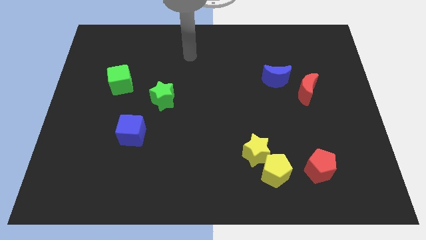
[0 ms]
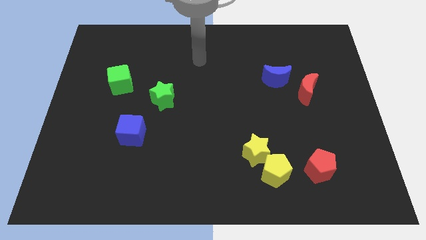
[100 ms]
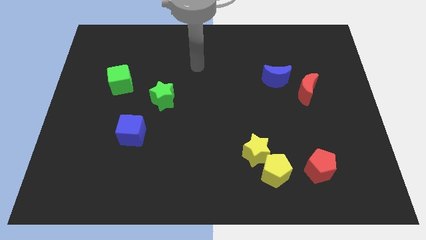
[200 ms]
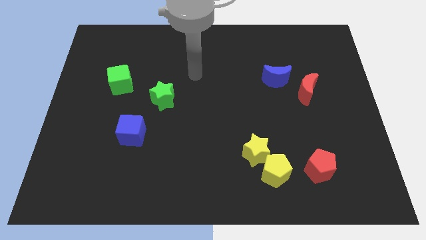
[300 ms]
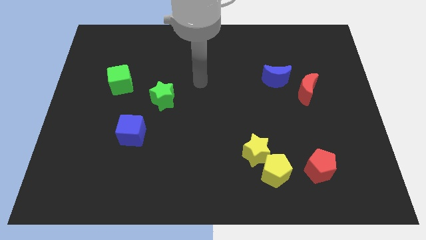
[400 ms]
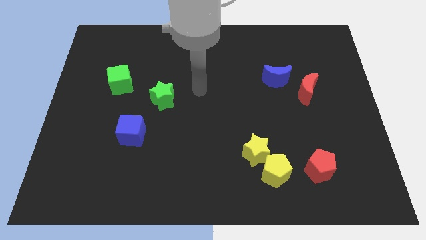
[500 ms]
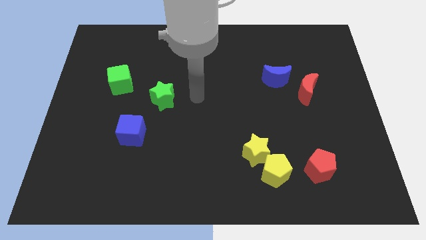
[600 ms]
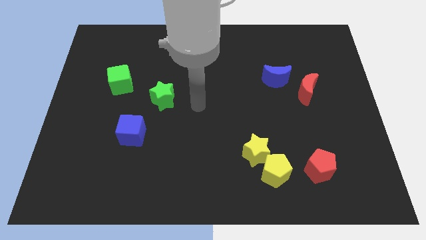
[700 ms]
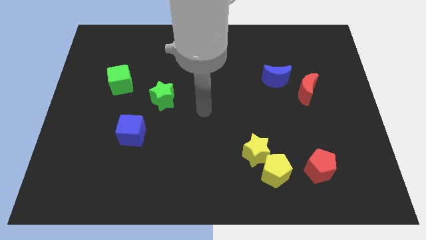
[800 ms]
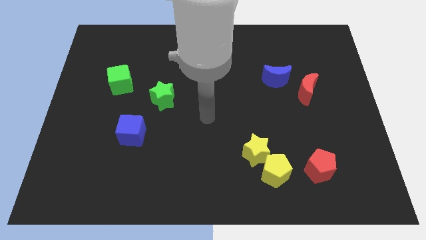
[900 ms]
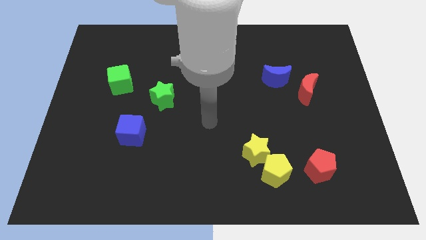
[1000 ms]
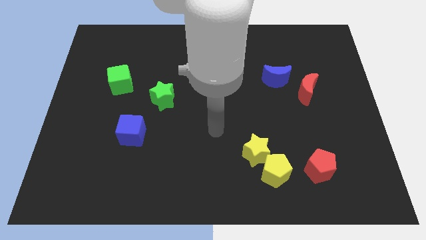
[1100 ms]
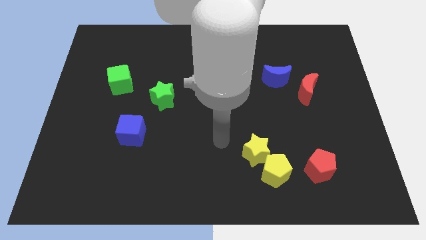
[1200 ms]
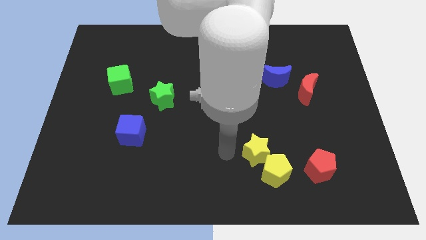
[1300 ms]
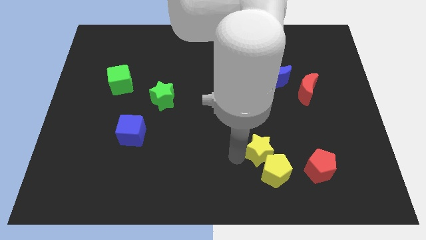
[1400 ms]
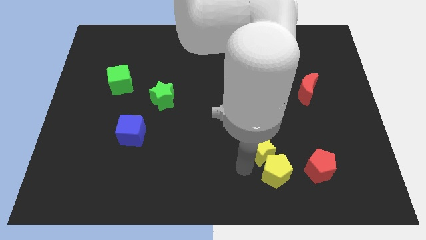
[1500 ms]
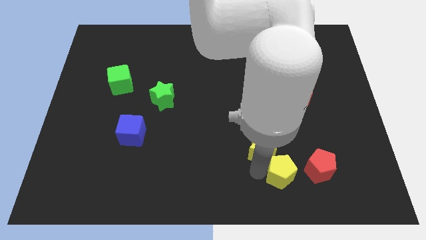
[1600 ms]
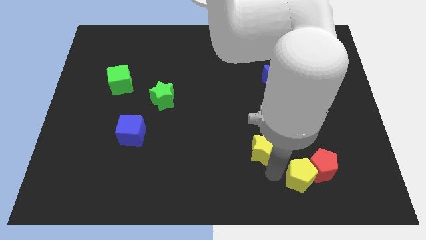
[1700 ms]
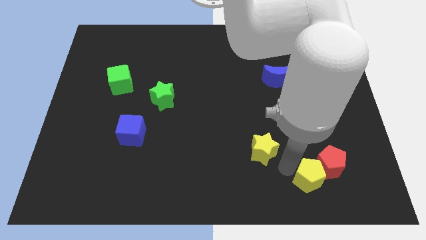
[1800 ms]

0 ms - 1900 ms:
separate the yellow star from the yellow pentagon

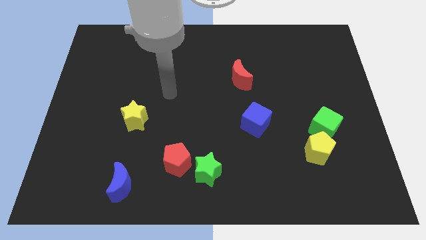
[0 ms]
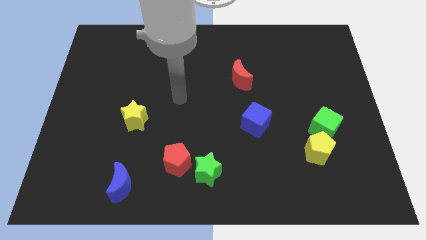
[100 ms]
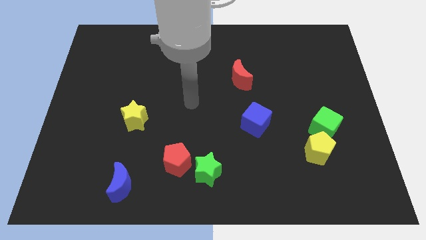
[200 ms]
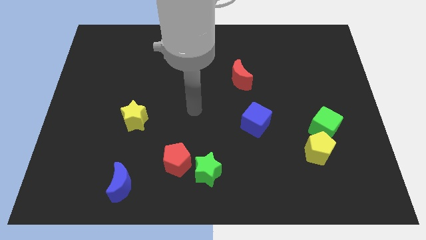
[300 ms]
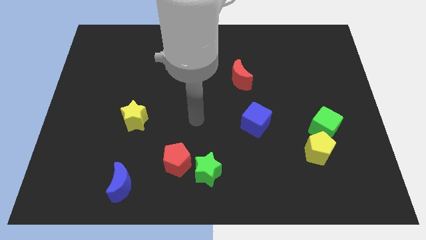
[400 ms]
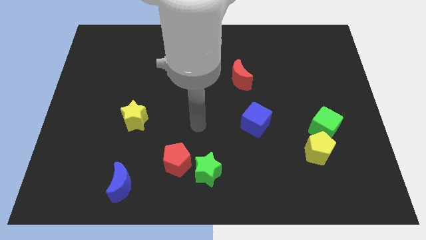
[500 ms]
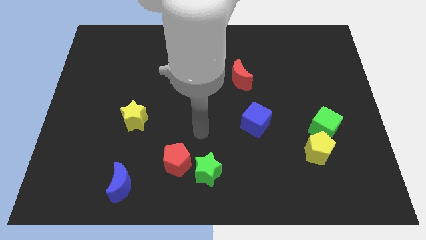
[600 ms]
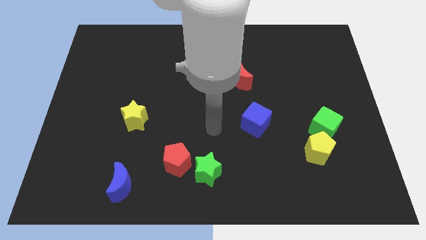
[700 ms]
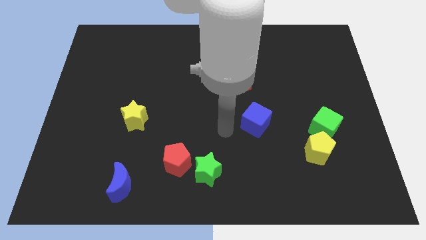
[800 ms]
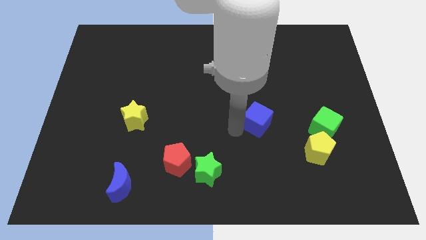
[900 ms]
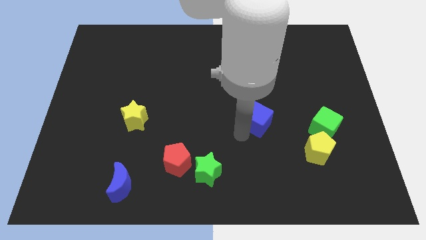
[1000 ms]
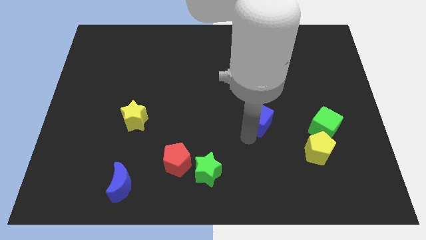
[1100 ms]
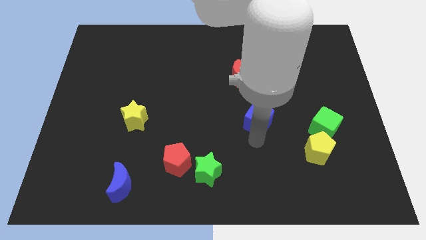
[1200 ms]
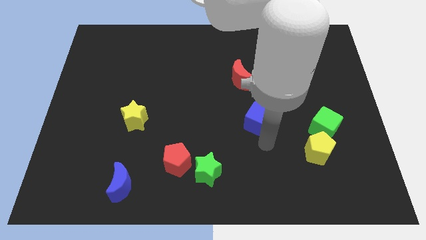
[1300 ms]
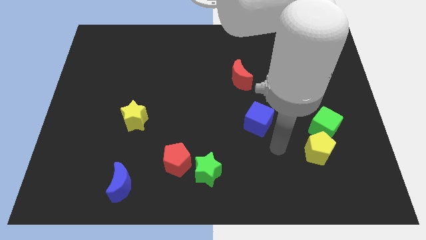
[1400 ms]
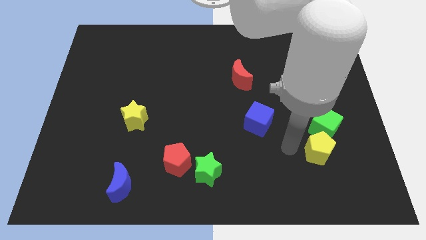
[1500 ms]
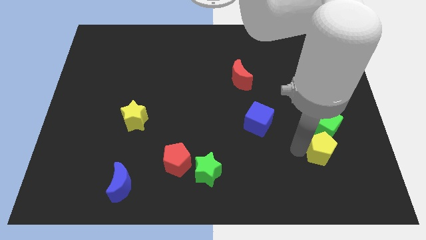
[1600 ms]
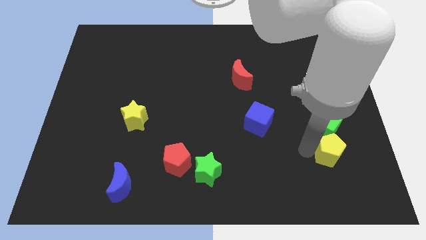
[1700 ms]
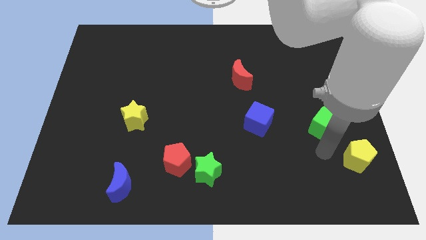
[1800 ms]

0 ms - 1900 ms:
pull the green cube apart from the yellow pentagon

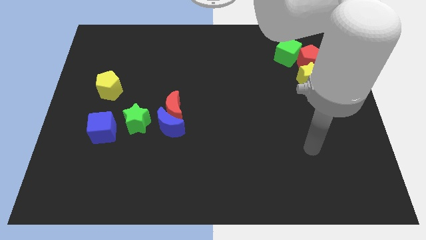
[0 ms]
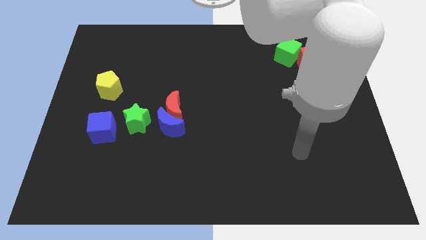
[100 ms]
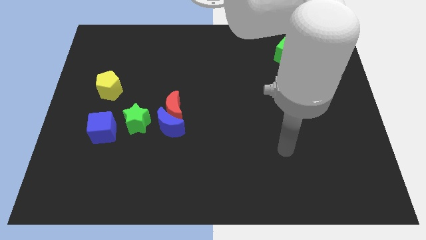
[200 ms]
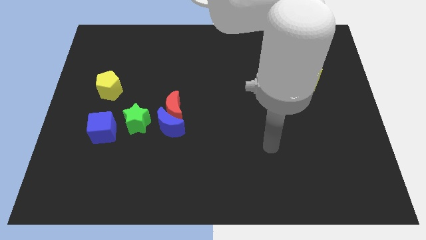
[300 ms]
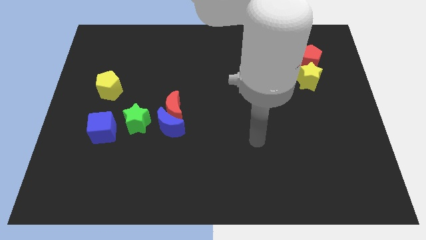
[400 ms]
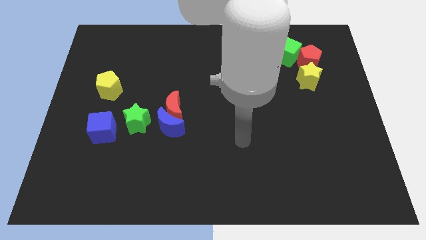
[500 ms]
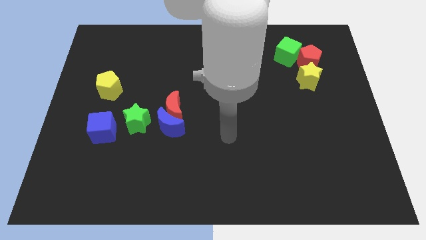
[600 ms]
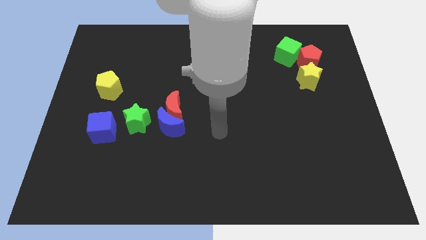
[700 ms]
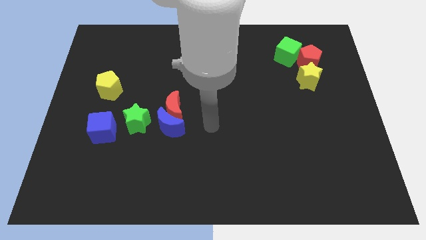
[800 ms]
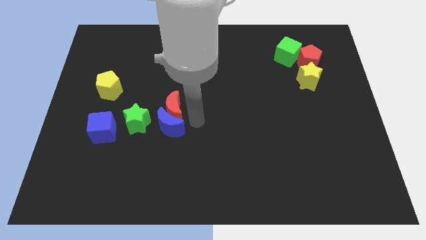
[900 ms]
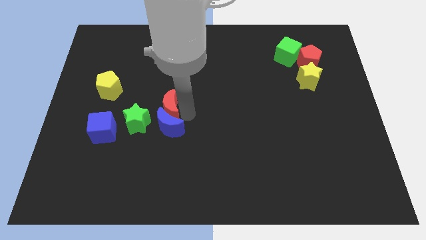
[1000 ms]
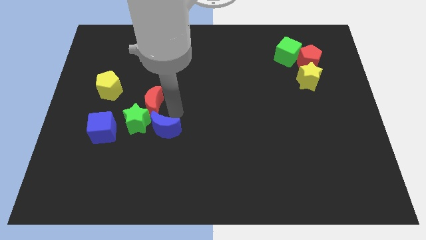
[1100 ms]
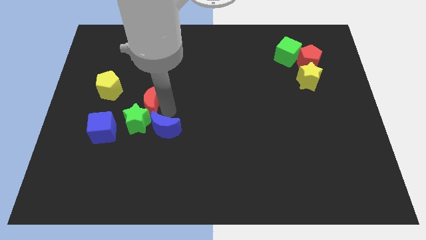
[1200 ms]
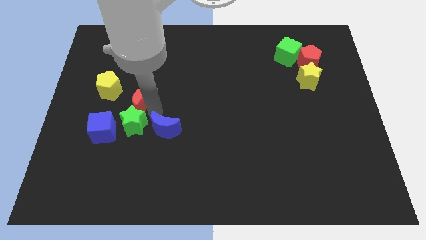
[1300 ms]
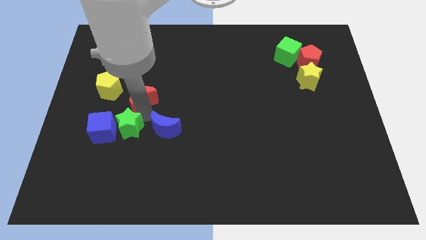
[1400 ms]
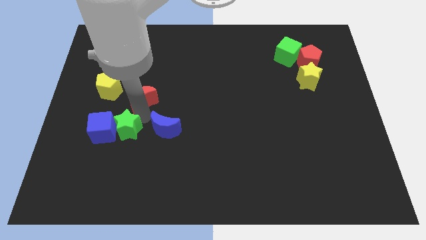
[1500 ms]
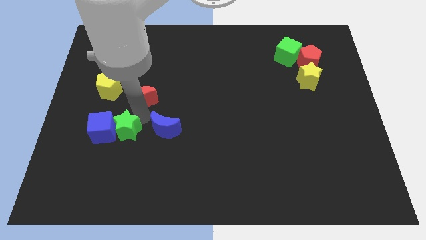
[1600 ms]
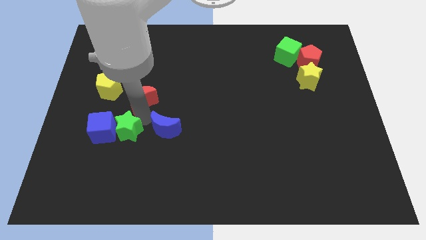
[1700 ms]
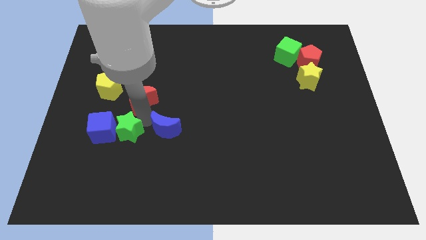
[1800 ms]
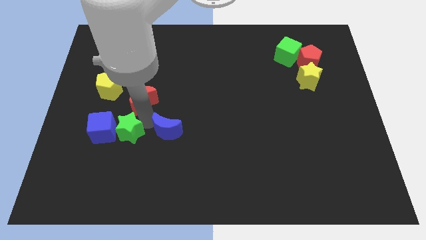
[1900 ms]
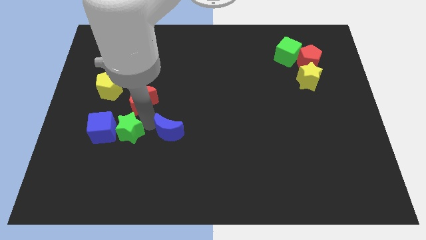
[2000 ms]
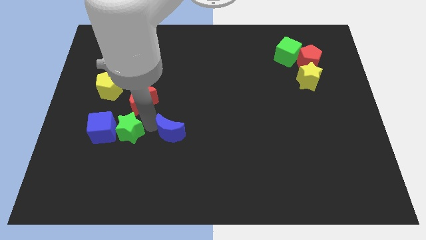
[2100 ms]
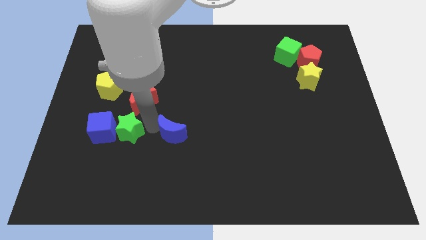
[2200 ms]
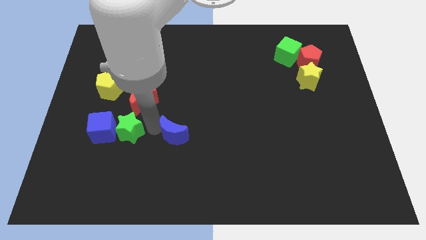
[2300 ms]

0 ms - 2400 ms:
move the blue moon away from the red moon and green star

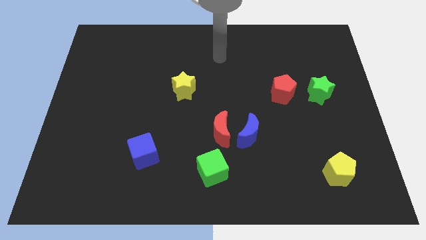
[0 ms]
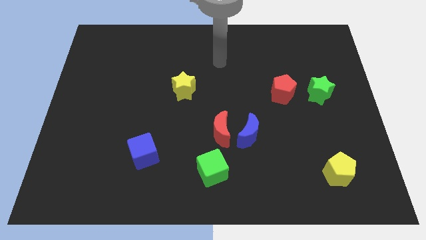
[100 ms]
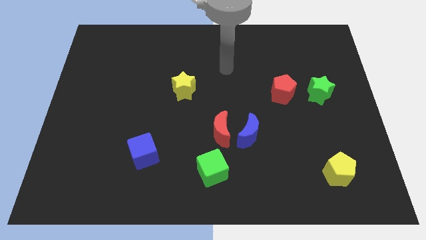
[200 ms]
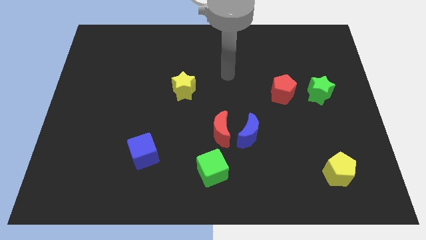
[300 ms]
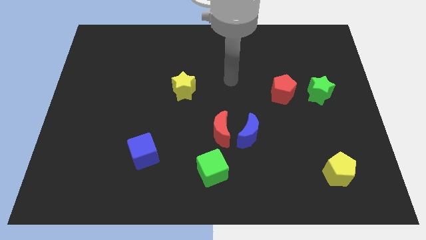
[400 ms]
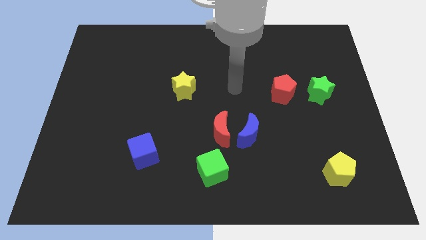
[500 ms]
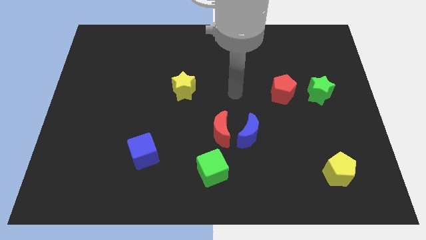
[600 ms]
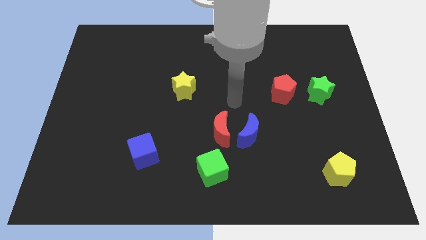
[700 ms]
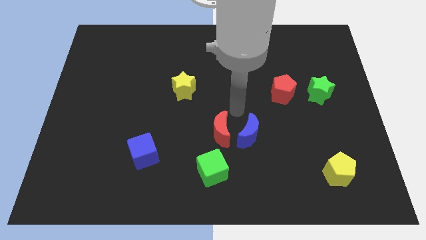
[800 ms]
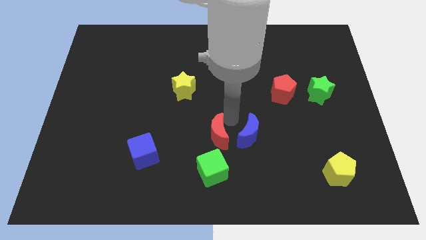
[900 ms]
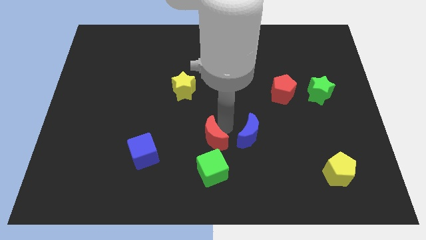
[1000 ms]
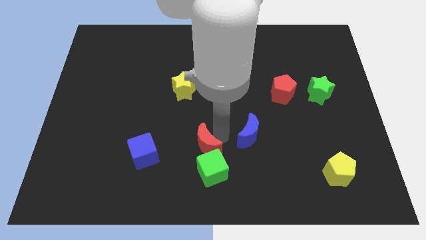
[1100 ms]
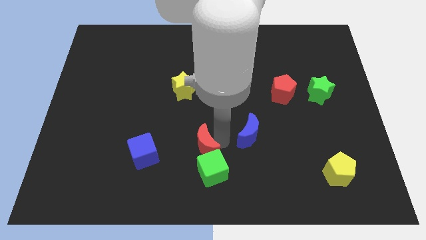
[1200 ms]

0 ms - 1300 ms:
separate the blue moon from the red moon

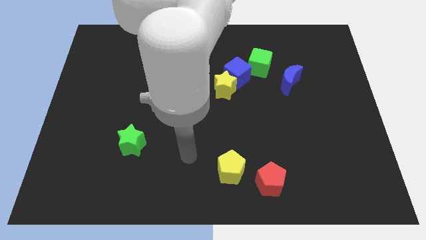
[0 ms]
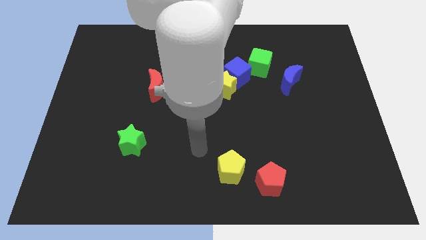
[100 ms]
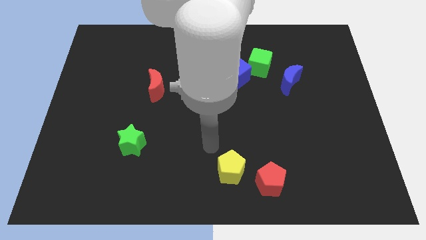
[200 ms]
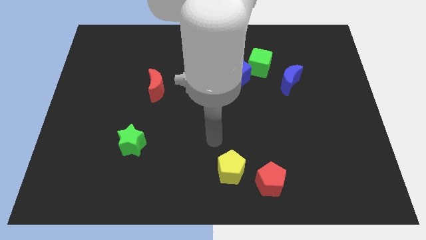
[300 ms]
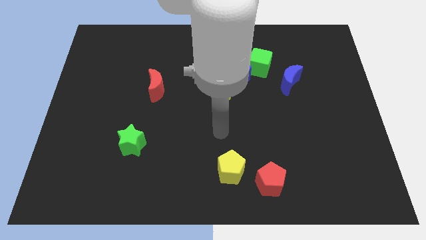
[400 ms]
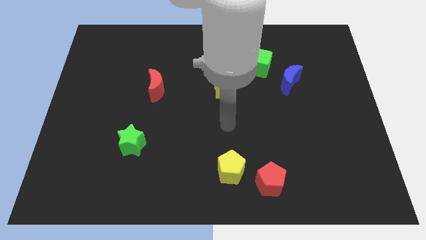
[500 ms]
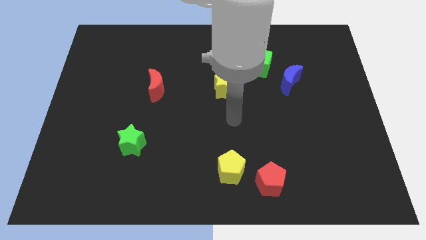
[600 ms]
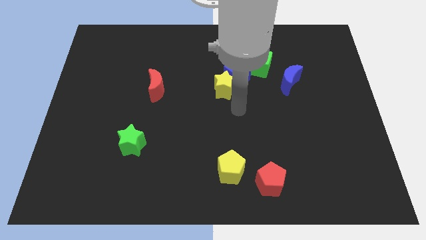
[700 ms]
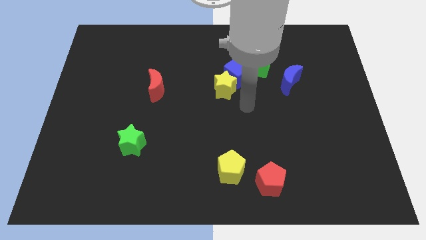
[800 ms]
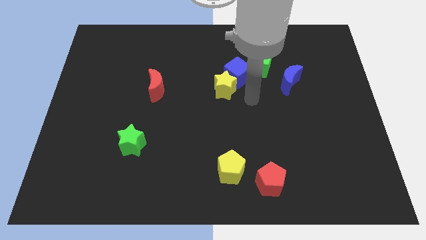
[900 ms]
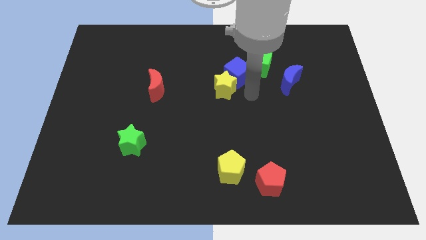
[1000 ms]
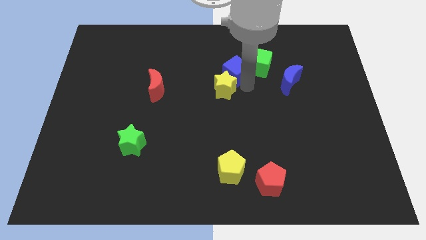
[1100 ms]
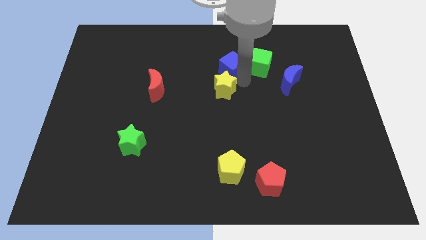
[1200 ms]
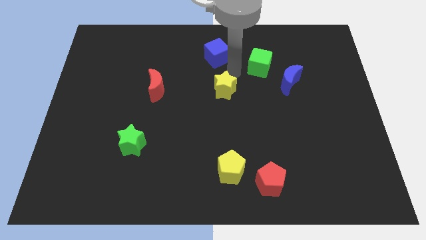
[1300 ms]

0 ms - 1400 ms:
separate the yellow star from the blue cube

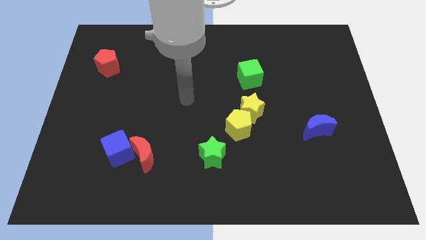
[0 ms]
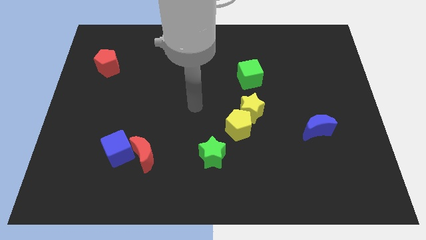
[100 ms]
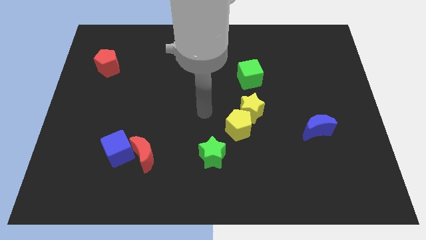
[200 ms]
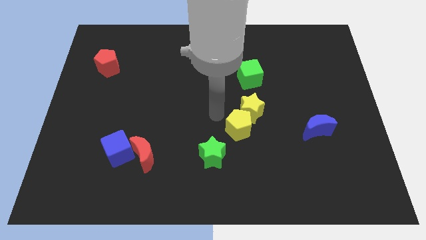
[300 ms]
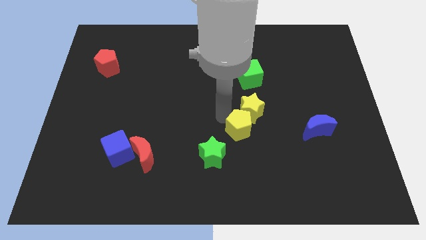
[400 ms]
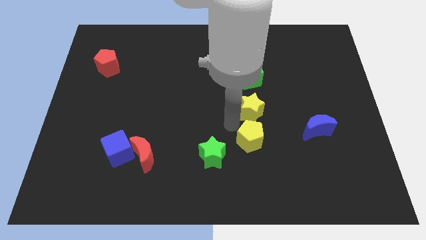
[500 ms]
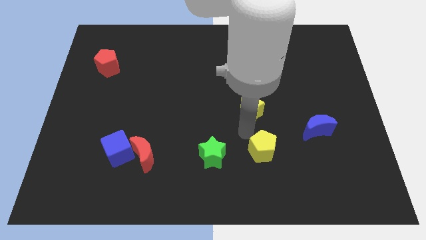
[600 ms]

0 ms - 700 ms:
pull the yellow star apart from the yellow pentagon
